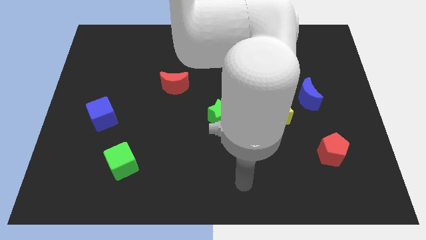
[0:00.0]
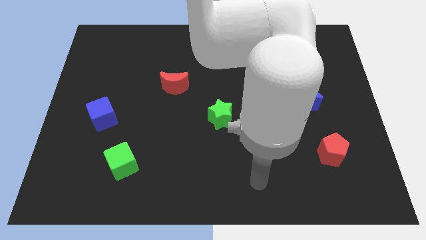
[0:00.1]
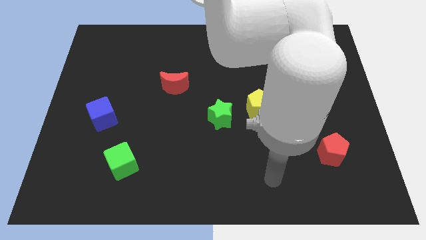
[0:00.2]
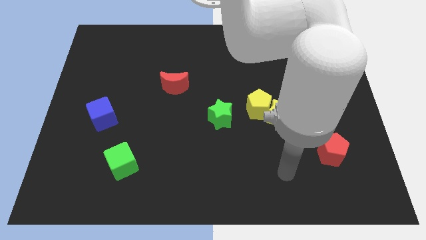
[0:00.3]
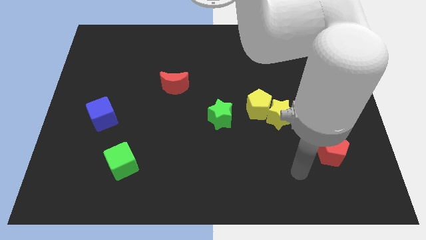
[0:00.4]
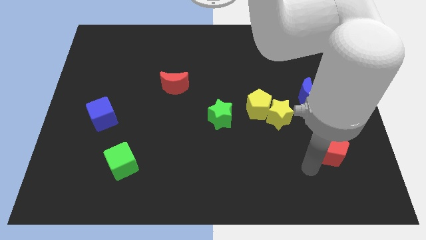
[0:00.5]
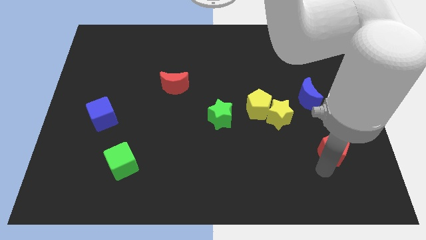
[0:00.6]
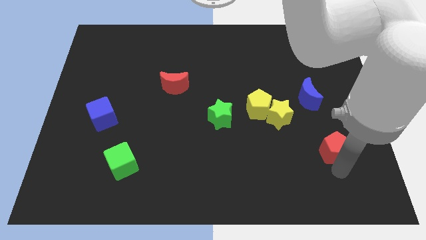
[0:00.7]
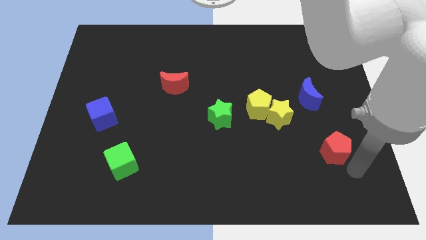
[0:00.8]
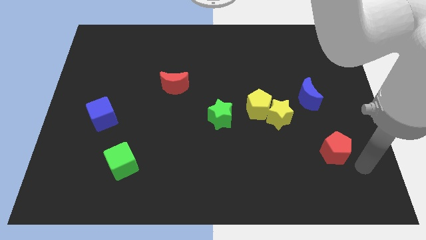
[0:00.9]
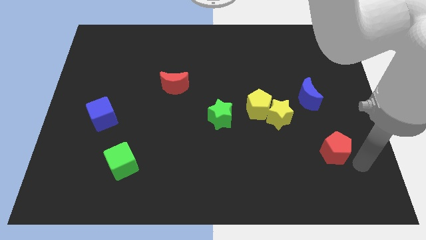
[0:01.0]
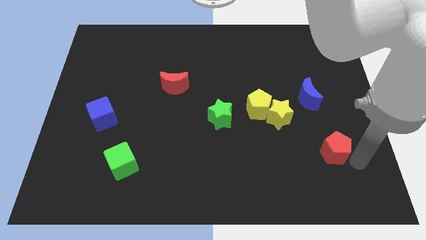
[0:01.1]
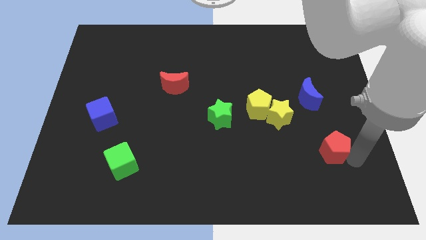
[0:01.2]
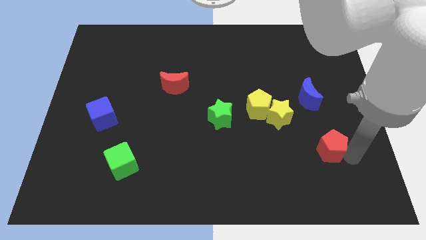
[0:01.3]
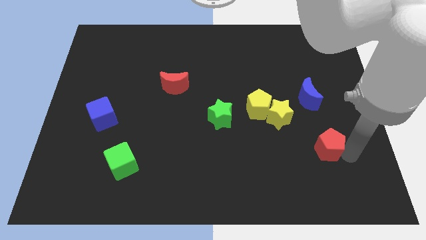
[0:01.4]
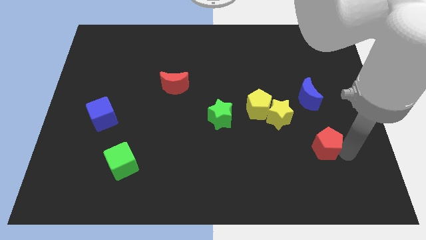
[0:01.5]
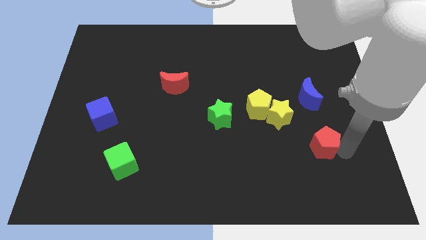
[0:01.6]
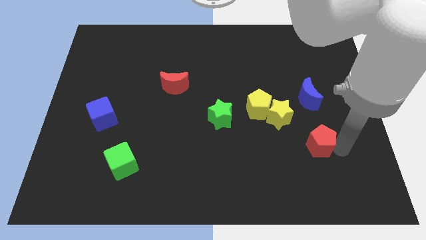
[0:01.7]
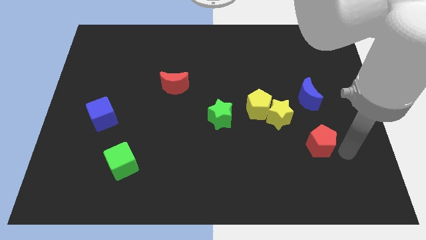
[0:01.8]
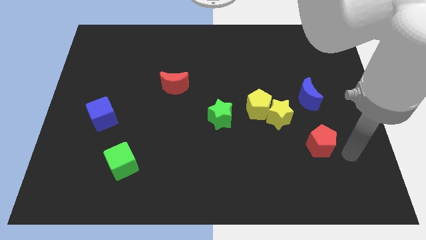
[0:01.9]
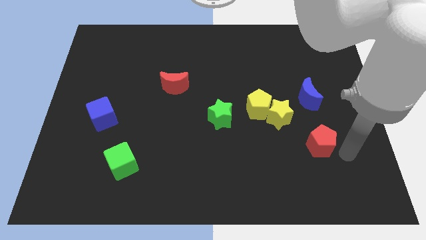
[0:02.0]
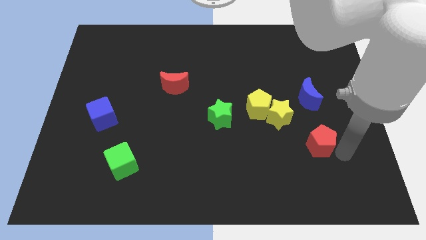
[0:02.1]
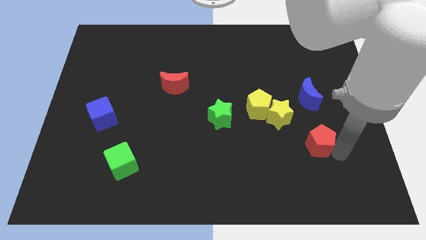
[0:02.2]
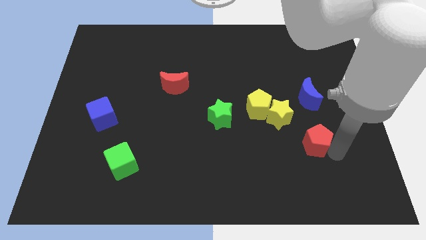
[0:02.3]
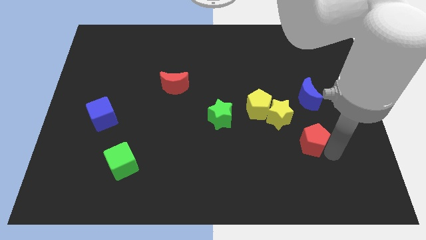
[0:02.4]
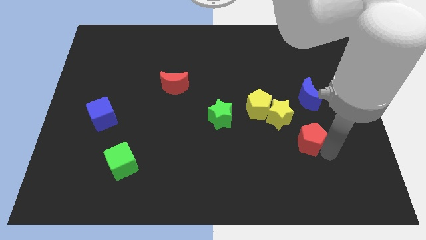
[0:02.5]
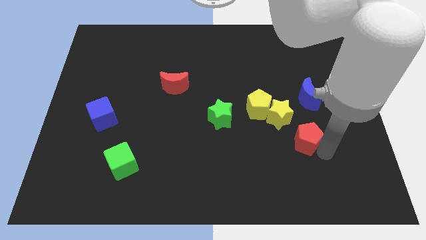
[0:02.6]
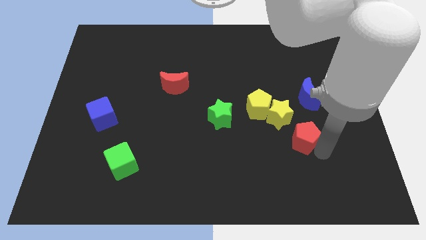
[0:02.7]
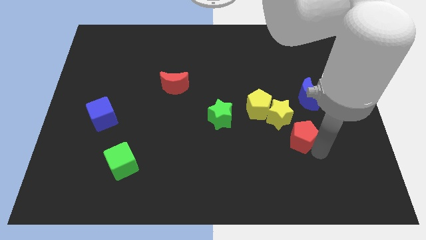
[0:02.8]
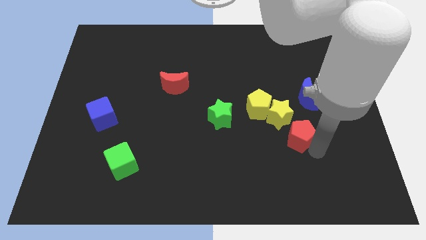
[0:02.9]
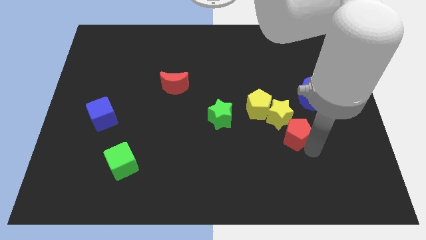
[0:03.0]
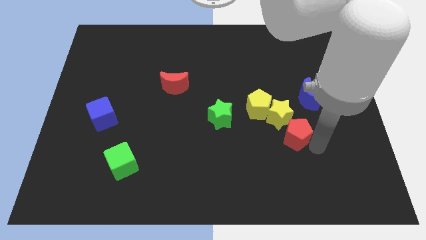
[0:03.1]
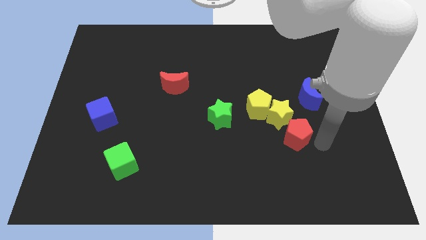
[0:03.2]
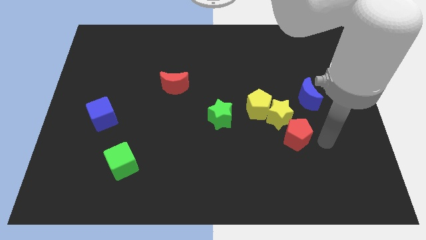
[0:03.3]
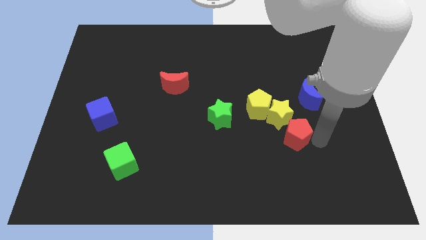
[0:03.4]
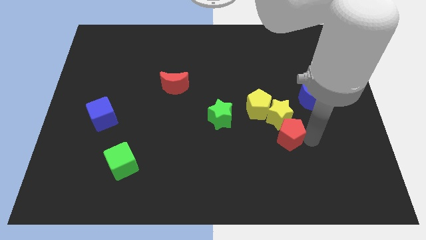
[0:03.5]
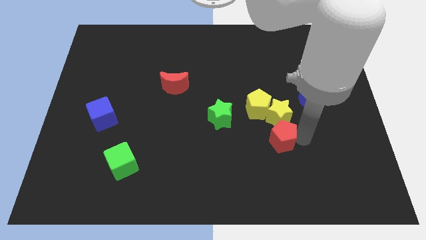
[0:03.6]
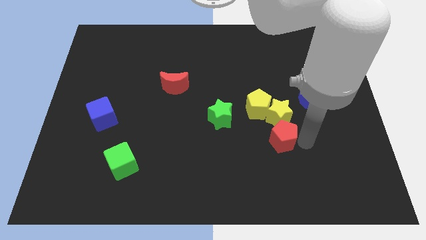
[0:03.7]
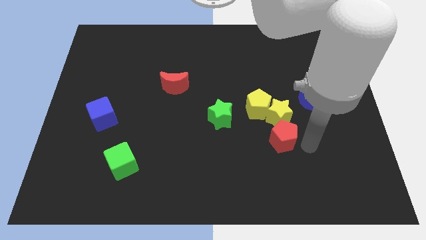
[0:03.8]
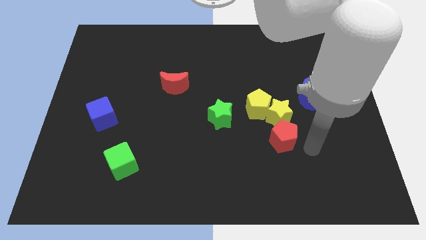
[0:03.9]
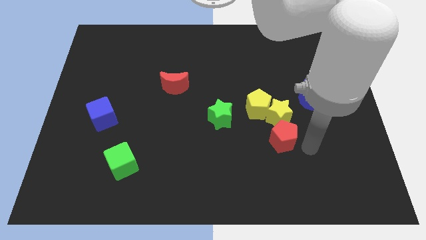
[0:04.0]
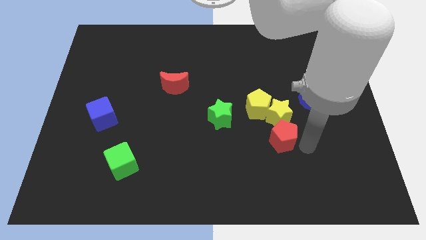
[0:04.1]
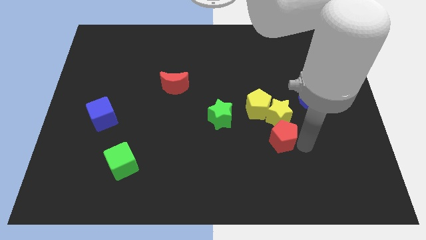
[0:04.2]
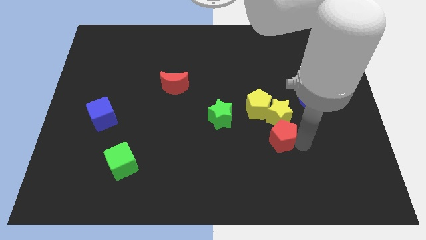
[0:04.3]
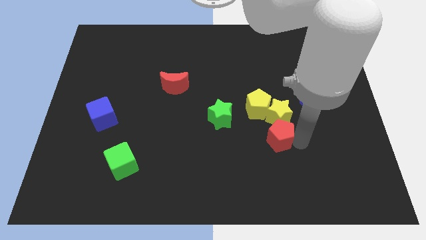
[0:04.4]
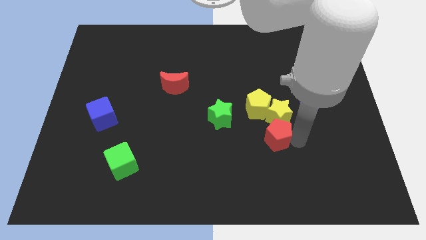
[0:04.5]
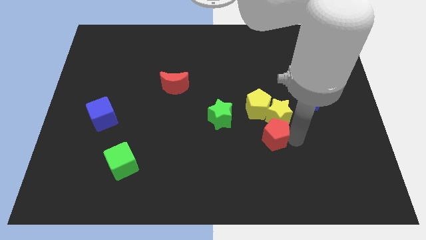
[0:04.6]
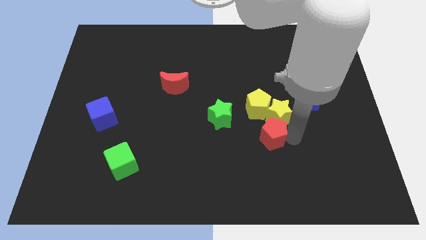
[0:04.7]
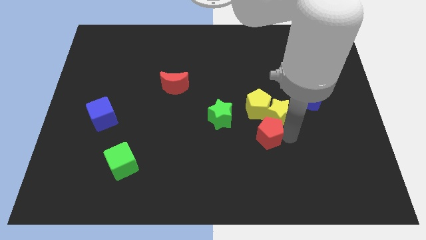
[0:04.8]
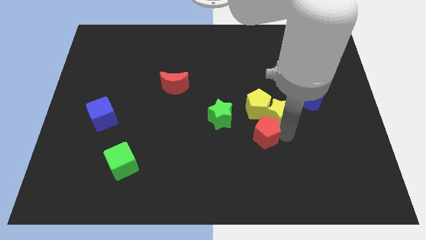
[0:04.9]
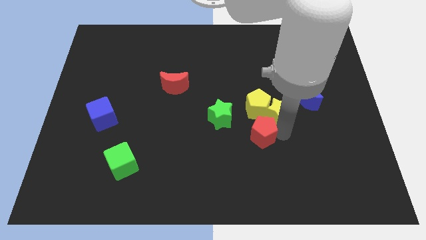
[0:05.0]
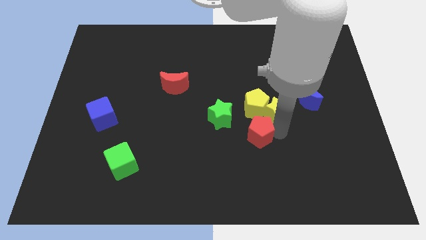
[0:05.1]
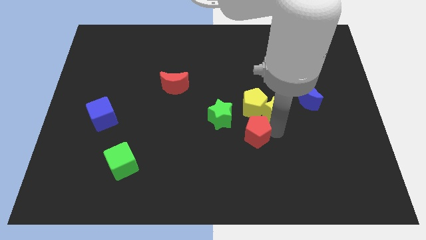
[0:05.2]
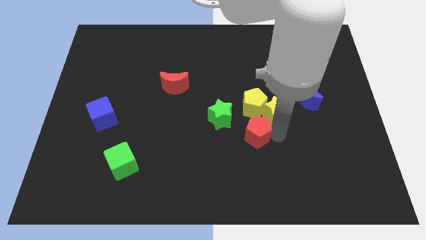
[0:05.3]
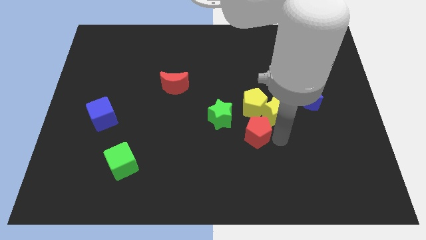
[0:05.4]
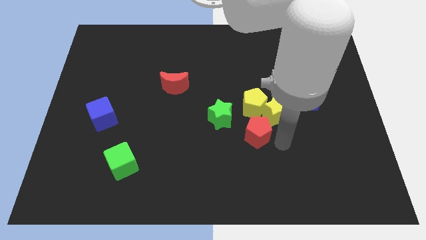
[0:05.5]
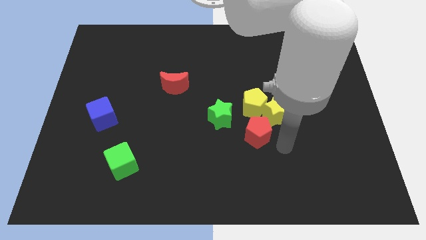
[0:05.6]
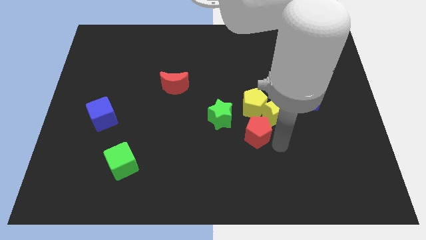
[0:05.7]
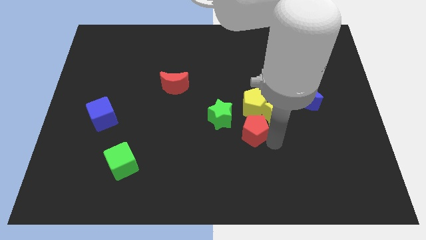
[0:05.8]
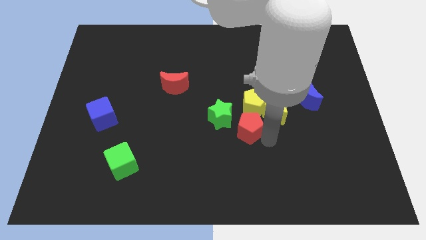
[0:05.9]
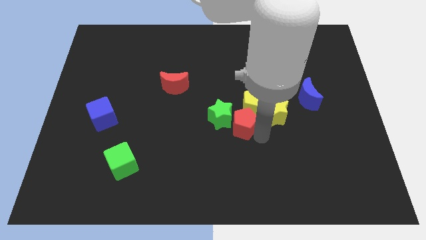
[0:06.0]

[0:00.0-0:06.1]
move the red pentagon next to the green star
